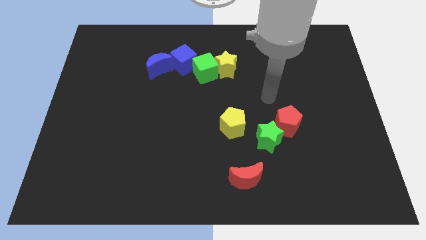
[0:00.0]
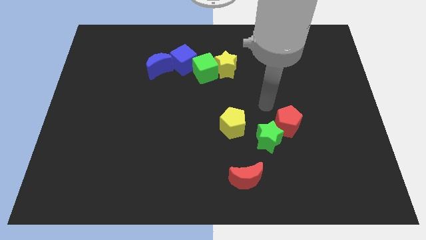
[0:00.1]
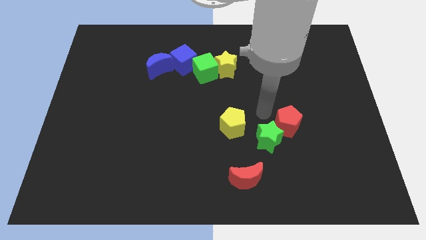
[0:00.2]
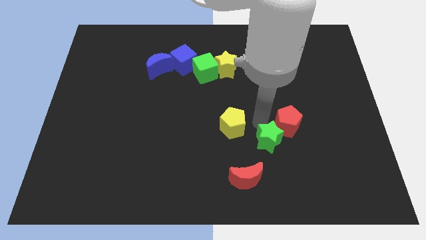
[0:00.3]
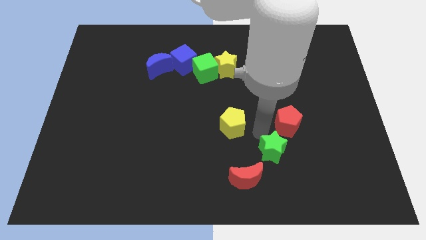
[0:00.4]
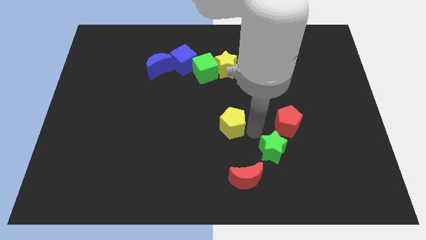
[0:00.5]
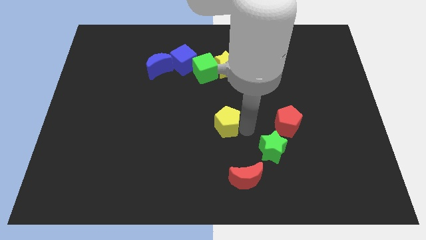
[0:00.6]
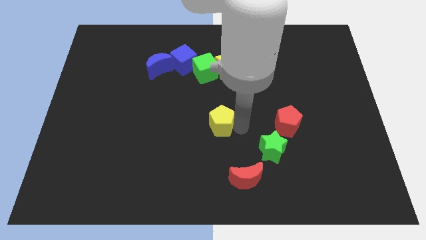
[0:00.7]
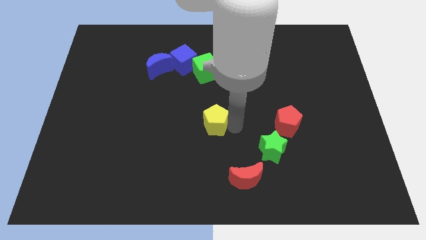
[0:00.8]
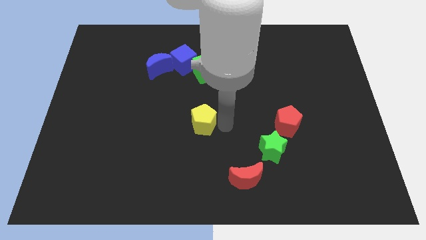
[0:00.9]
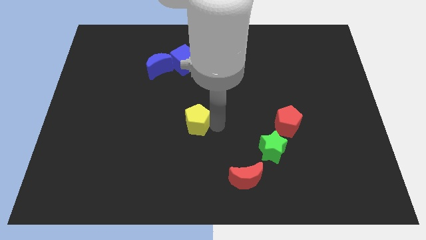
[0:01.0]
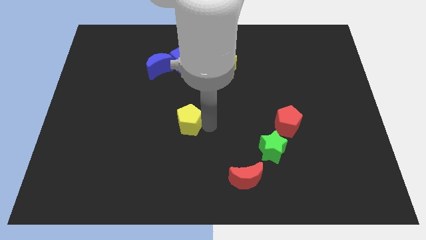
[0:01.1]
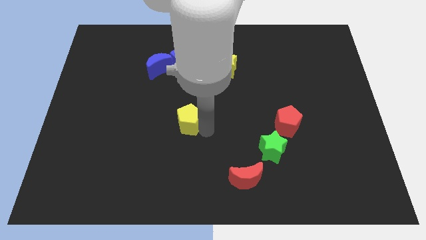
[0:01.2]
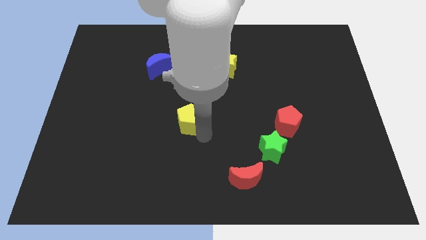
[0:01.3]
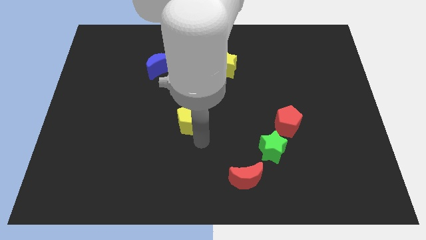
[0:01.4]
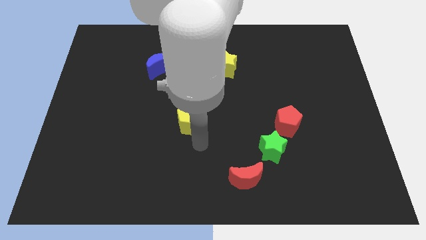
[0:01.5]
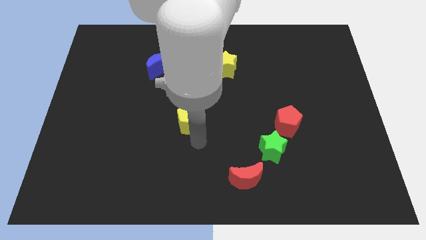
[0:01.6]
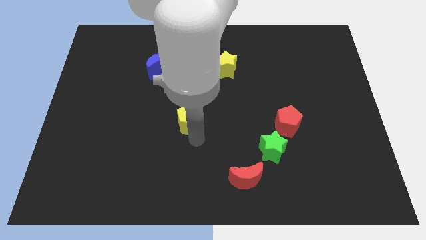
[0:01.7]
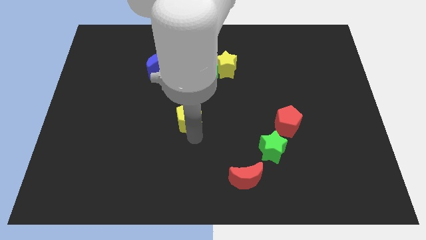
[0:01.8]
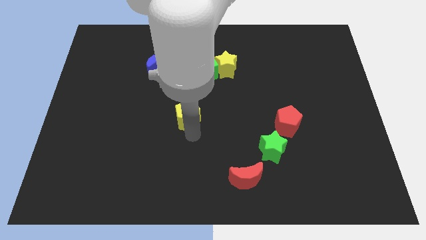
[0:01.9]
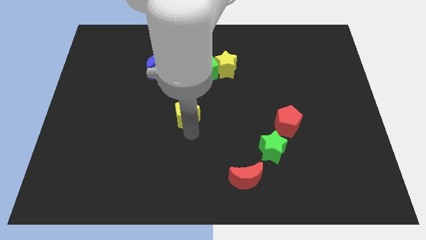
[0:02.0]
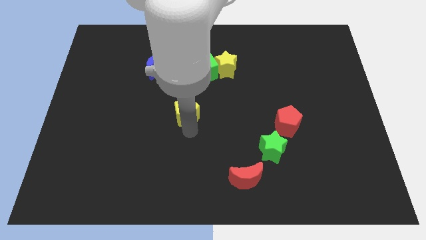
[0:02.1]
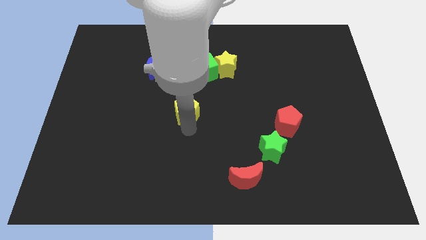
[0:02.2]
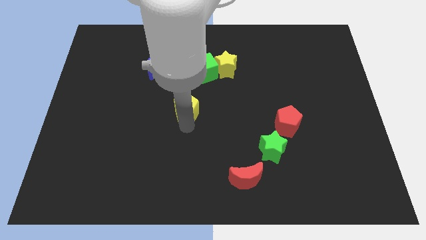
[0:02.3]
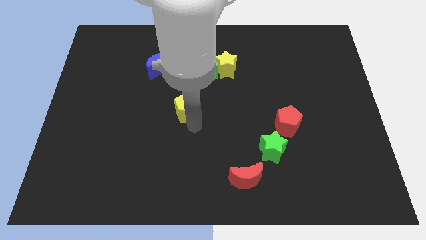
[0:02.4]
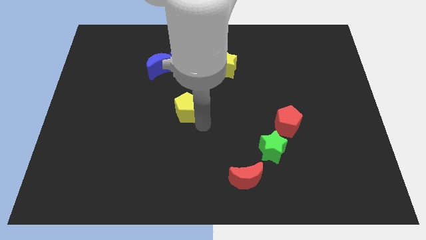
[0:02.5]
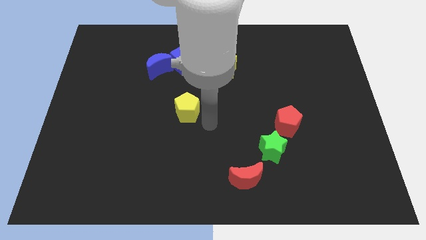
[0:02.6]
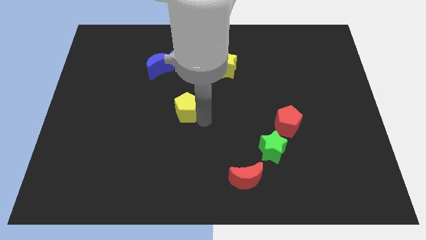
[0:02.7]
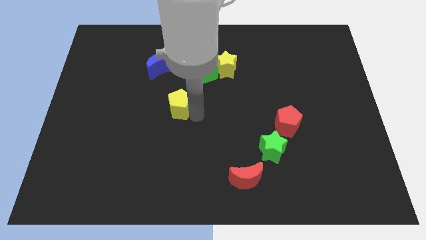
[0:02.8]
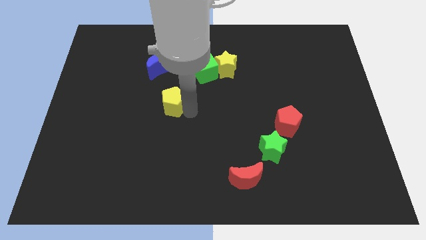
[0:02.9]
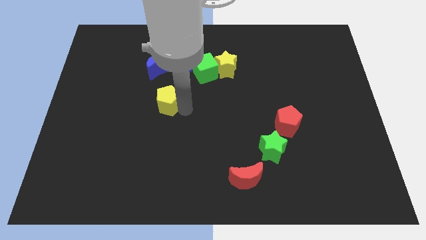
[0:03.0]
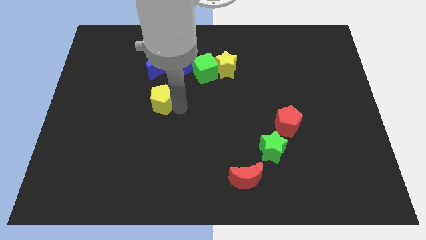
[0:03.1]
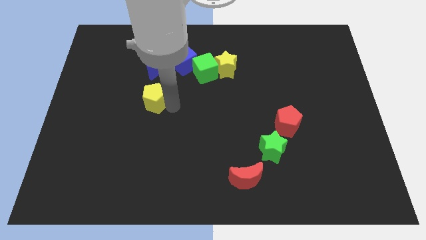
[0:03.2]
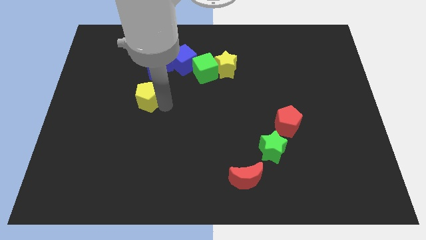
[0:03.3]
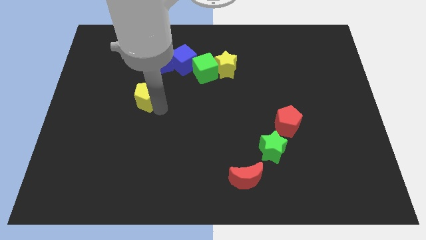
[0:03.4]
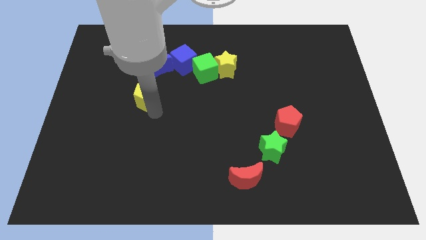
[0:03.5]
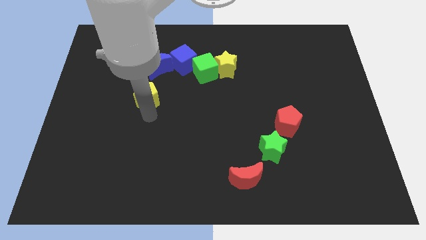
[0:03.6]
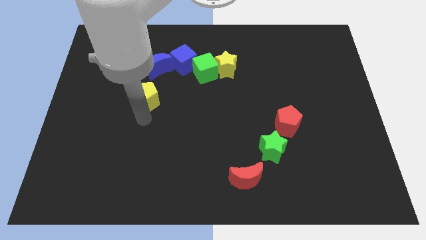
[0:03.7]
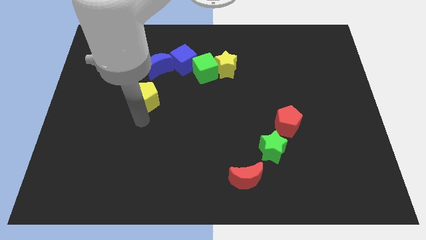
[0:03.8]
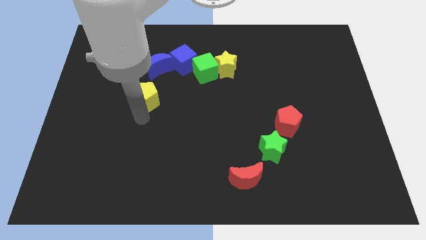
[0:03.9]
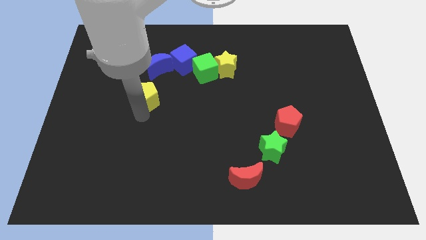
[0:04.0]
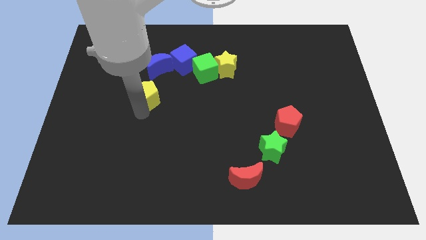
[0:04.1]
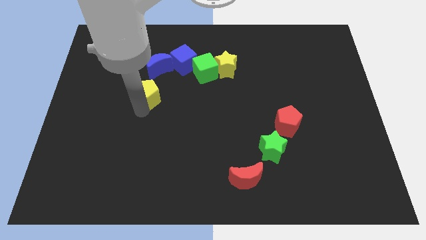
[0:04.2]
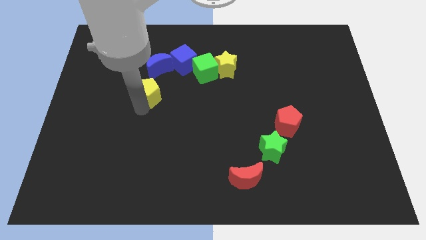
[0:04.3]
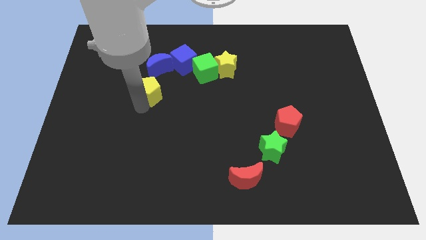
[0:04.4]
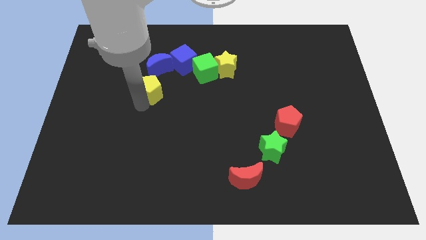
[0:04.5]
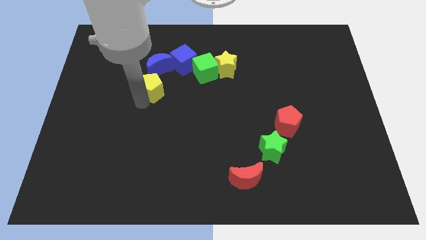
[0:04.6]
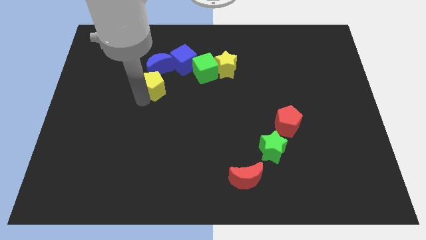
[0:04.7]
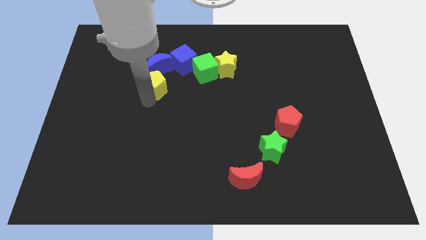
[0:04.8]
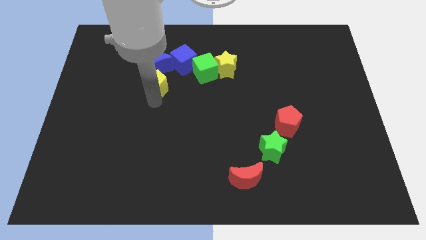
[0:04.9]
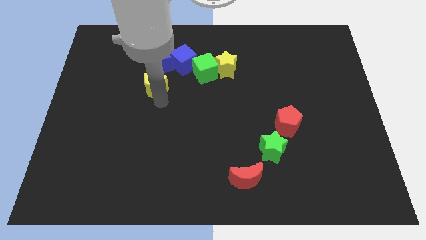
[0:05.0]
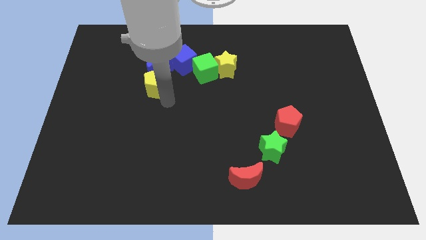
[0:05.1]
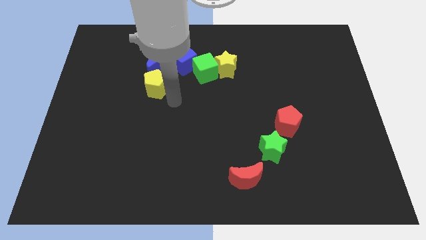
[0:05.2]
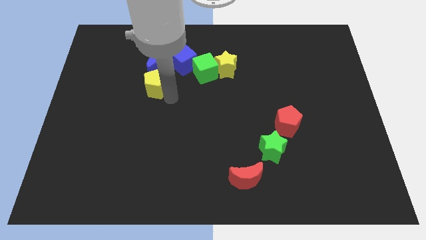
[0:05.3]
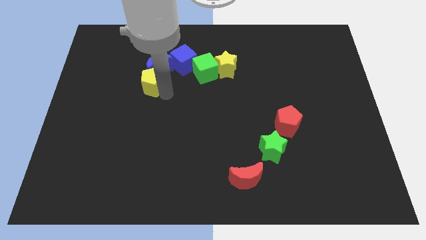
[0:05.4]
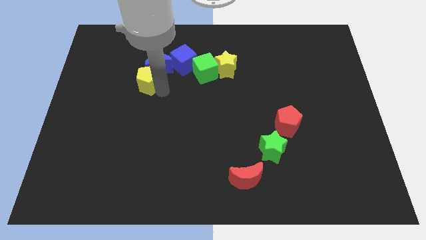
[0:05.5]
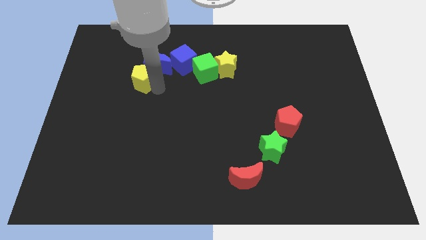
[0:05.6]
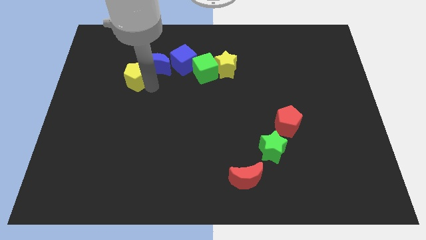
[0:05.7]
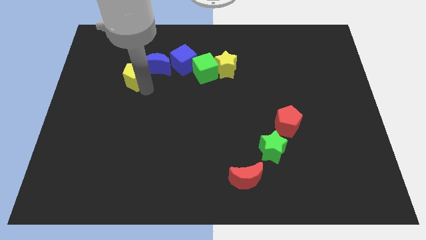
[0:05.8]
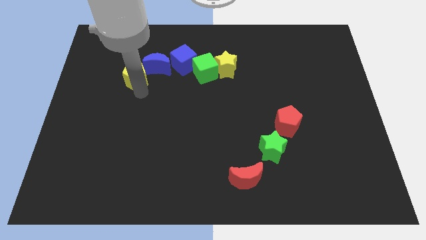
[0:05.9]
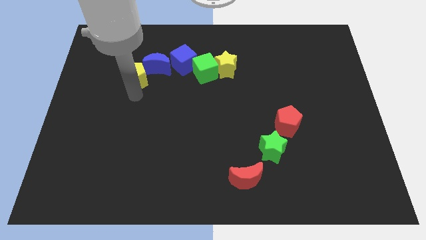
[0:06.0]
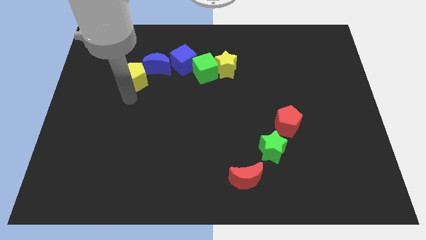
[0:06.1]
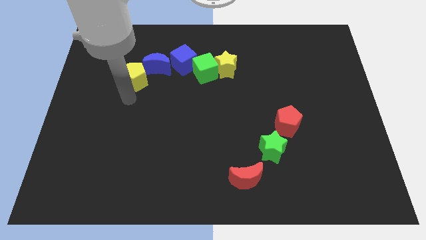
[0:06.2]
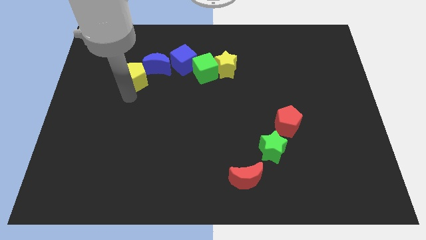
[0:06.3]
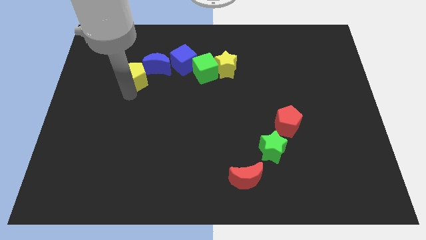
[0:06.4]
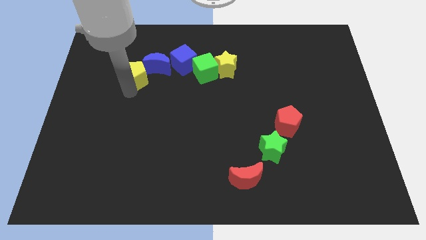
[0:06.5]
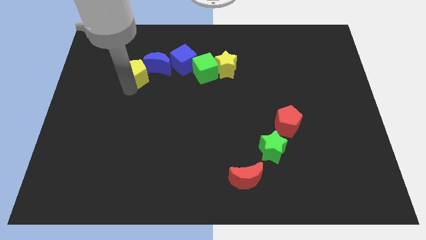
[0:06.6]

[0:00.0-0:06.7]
put the yellow pentagon left of the blue cube

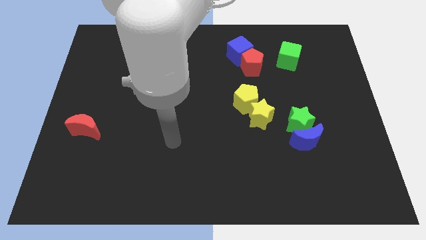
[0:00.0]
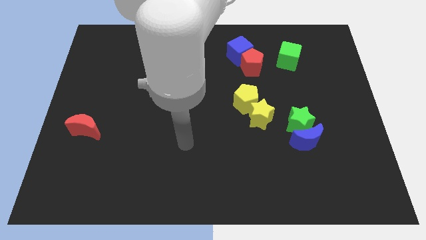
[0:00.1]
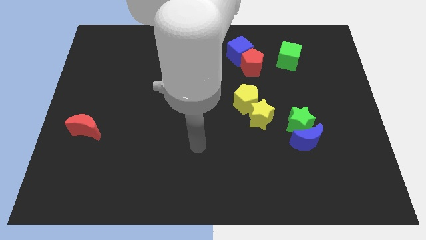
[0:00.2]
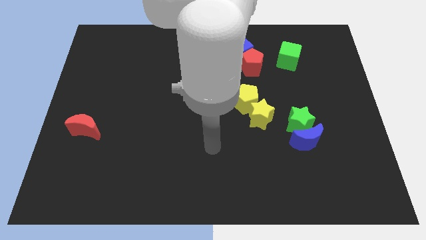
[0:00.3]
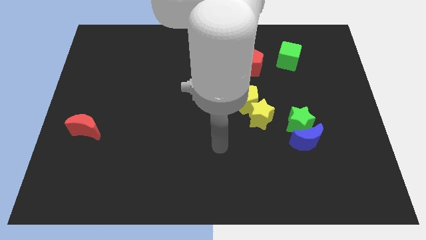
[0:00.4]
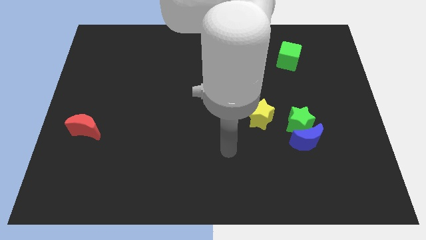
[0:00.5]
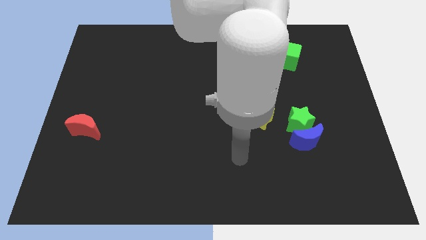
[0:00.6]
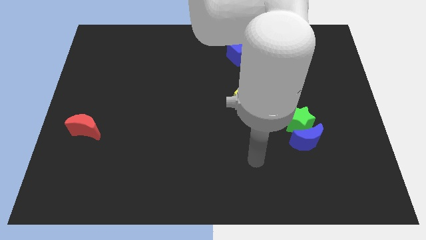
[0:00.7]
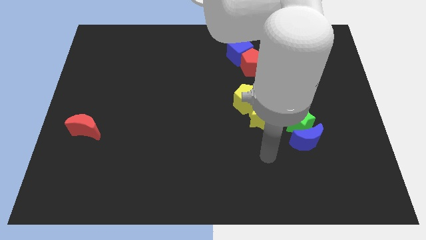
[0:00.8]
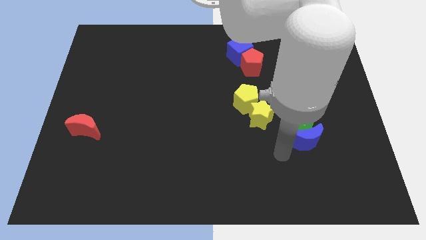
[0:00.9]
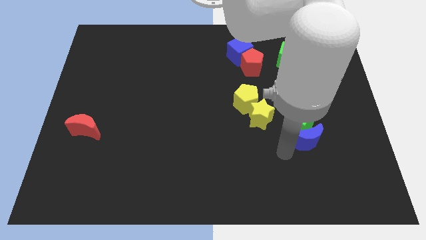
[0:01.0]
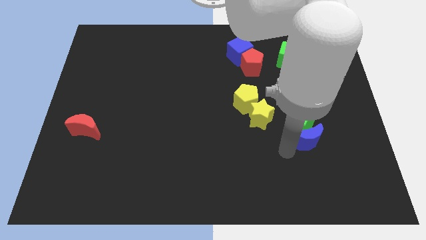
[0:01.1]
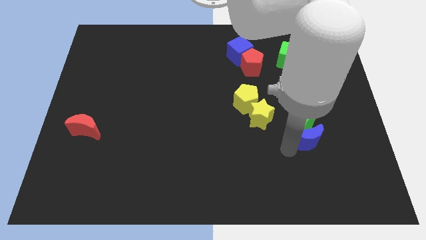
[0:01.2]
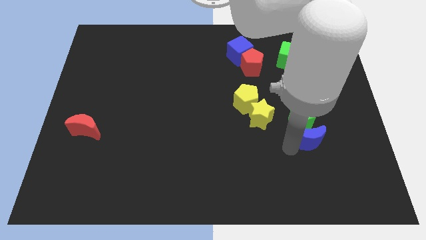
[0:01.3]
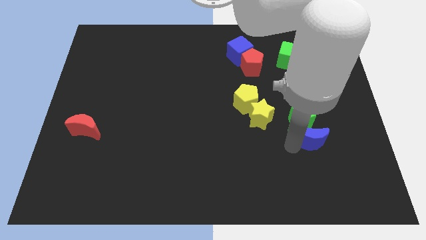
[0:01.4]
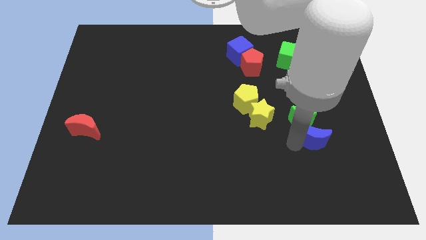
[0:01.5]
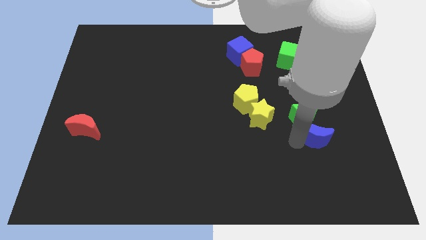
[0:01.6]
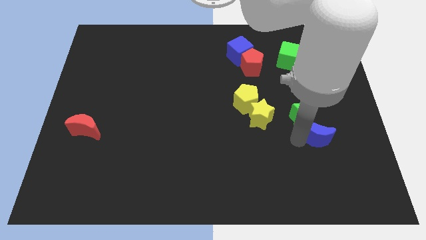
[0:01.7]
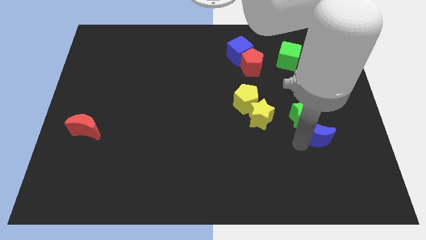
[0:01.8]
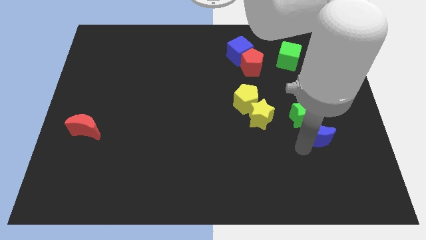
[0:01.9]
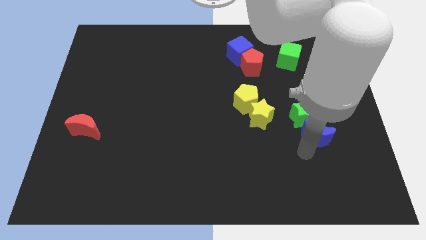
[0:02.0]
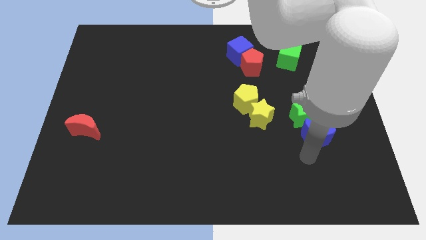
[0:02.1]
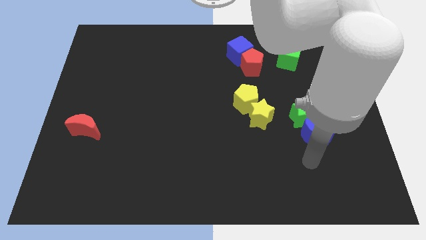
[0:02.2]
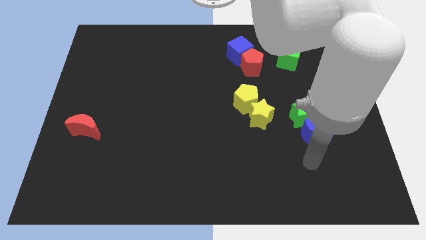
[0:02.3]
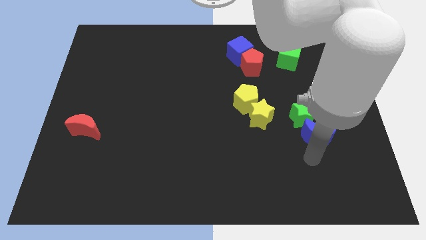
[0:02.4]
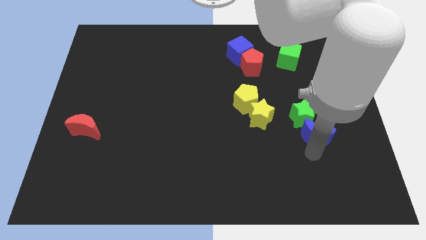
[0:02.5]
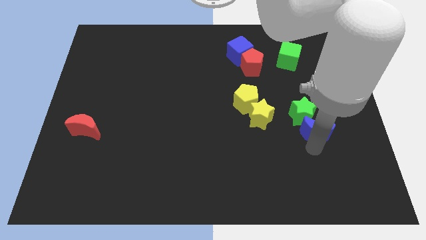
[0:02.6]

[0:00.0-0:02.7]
put the blue moon right of the yellow star
